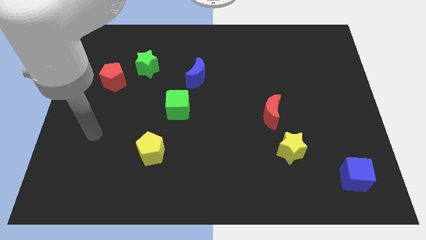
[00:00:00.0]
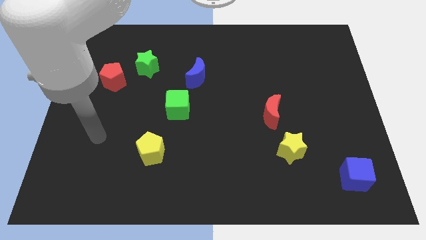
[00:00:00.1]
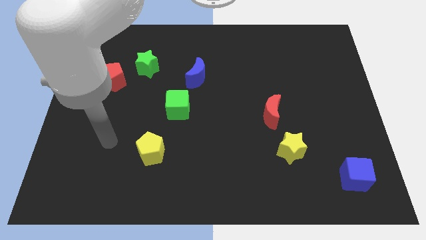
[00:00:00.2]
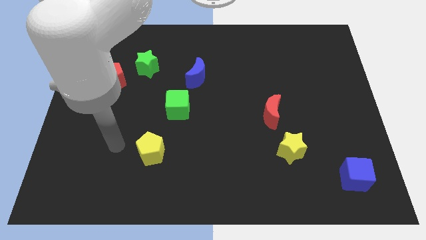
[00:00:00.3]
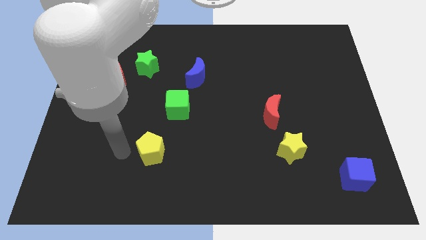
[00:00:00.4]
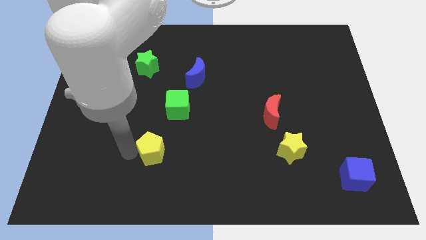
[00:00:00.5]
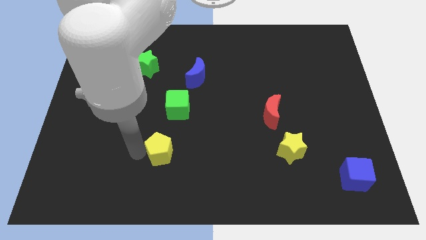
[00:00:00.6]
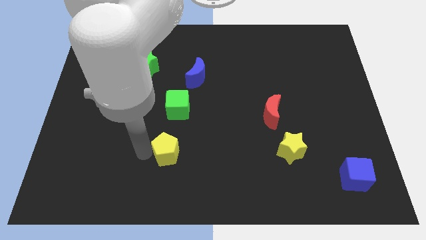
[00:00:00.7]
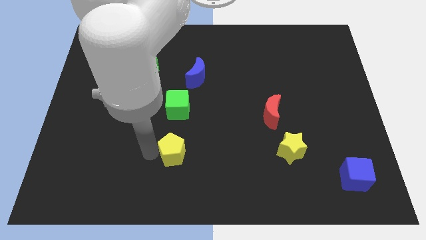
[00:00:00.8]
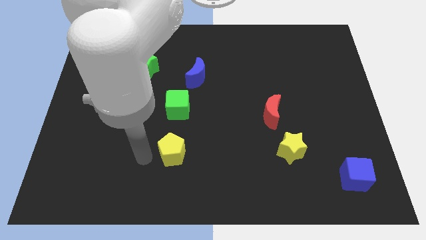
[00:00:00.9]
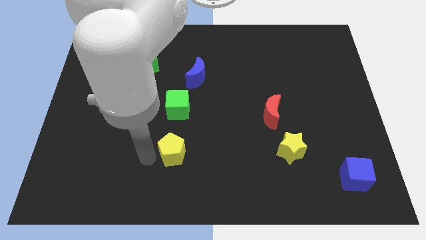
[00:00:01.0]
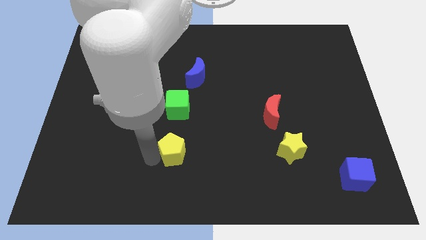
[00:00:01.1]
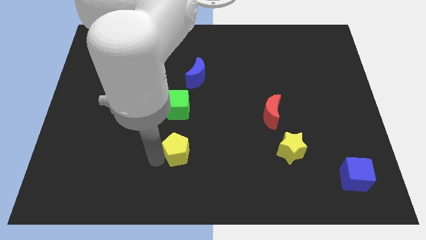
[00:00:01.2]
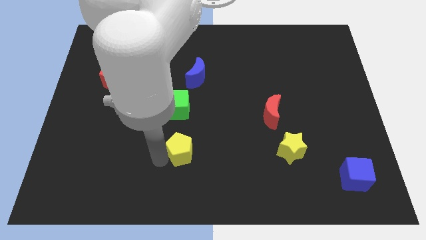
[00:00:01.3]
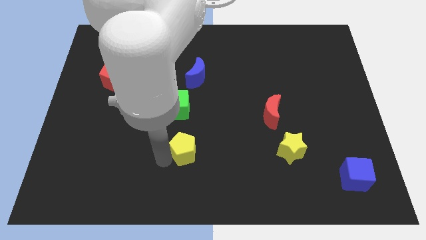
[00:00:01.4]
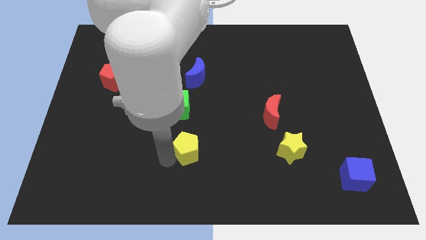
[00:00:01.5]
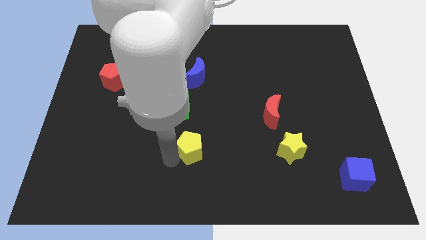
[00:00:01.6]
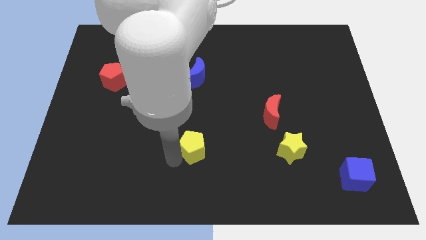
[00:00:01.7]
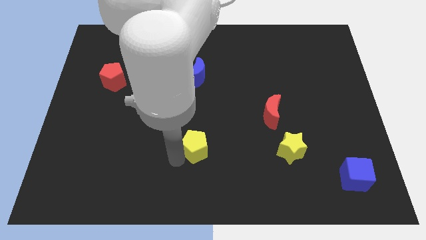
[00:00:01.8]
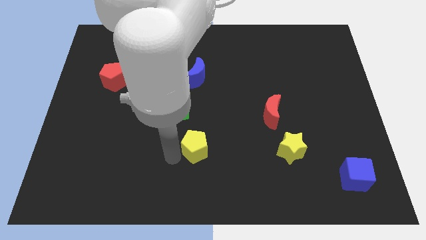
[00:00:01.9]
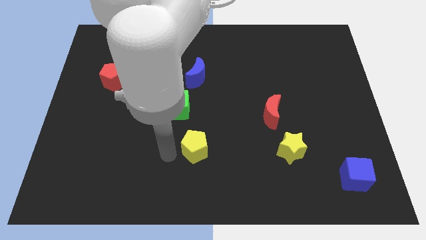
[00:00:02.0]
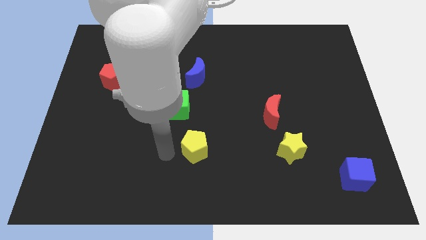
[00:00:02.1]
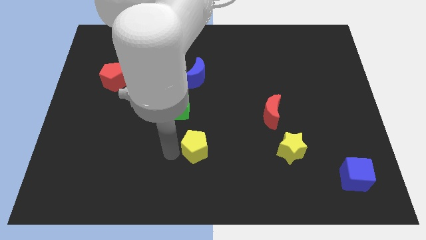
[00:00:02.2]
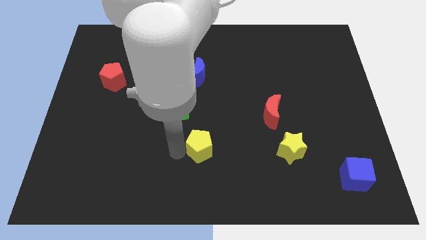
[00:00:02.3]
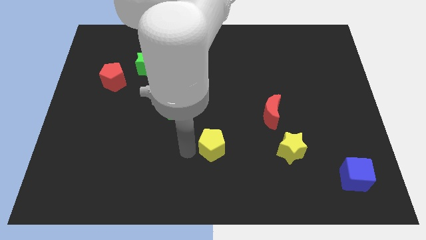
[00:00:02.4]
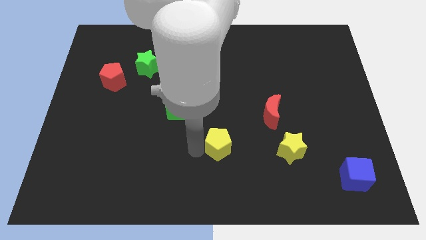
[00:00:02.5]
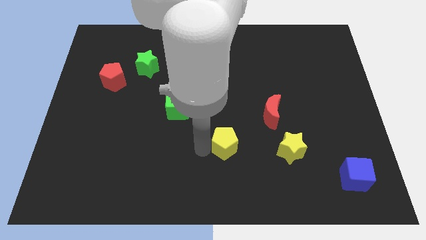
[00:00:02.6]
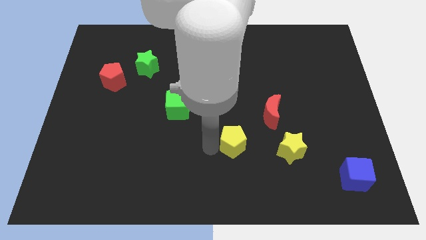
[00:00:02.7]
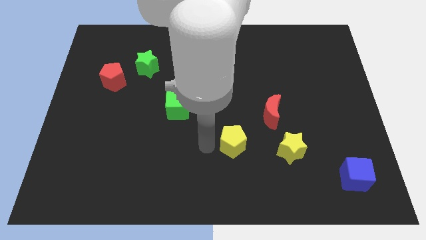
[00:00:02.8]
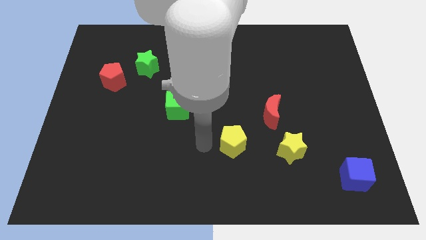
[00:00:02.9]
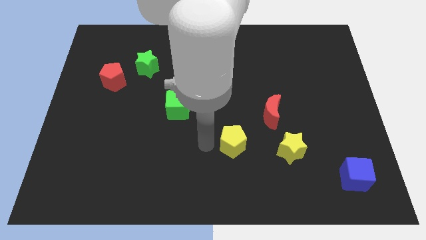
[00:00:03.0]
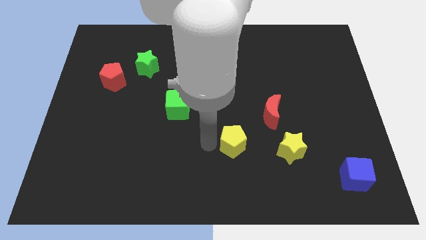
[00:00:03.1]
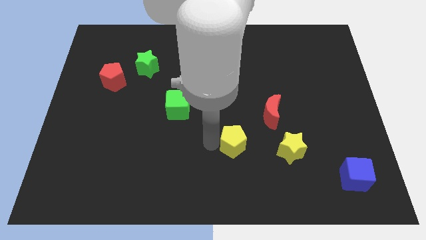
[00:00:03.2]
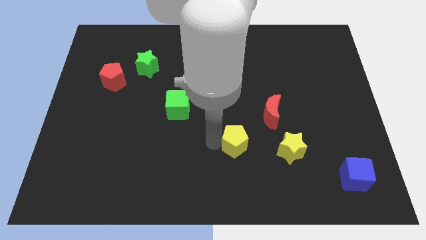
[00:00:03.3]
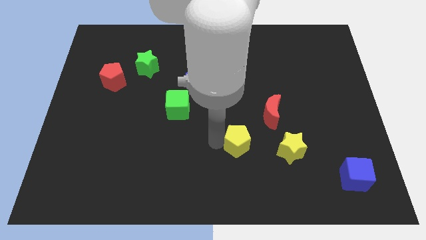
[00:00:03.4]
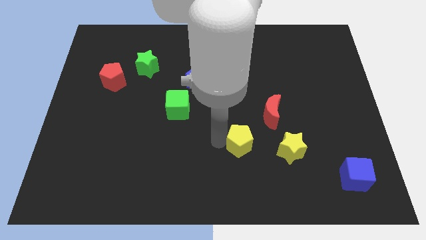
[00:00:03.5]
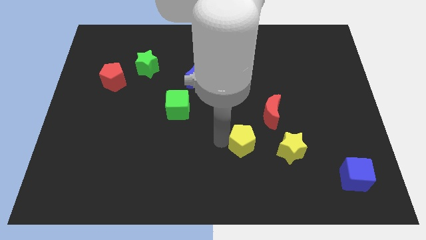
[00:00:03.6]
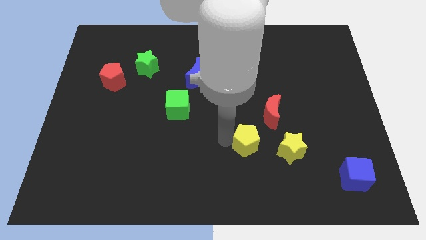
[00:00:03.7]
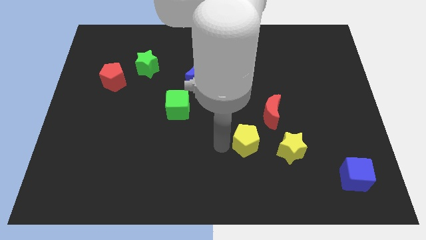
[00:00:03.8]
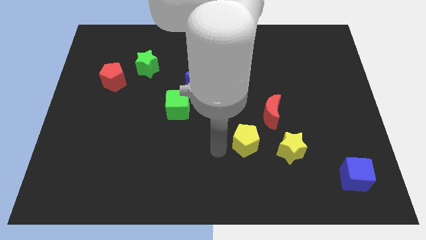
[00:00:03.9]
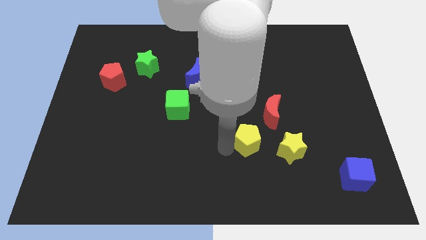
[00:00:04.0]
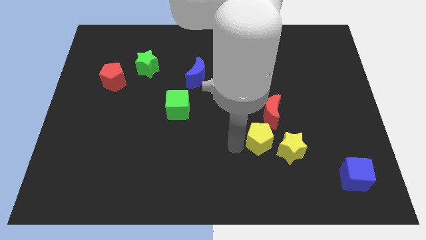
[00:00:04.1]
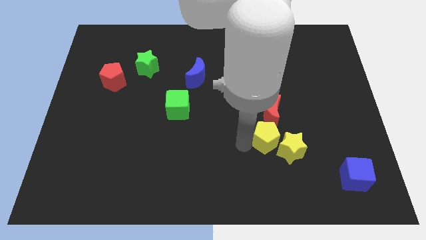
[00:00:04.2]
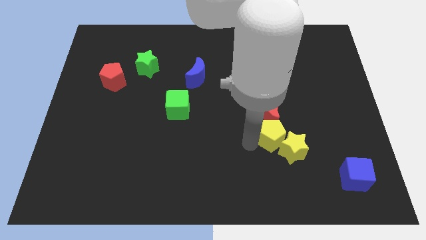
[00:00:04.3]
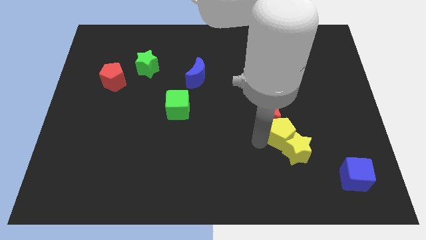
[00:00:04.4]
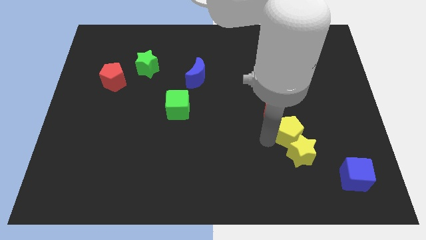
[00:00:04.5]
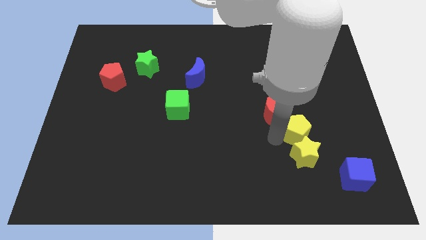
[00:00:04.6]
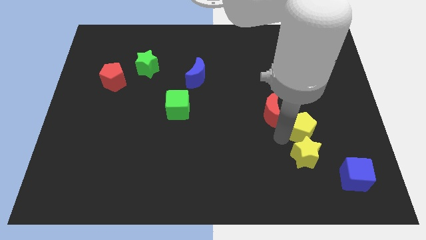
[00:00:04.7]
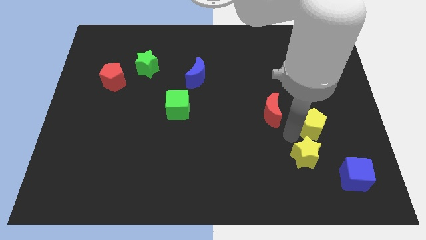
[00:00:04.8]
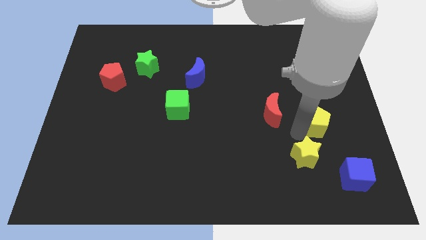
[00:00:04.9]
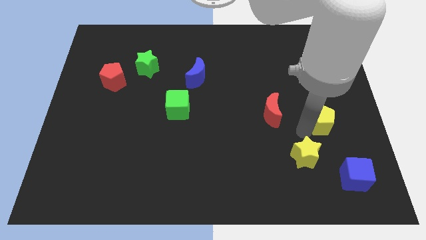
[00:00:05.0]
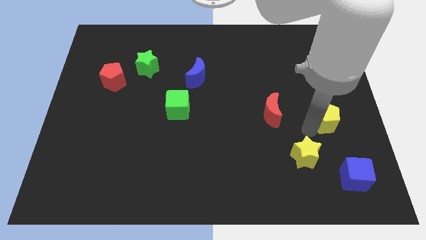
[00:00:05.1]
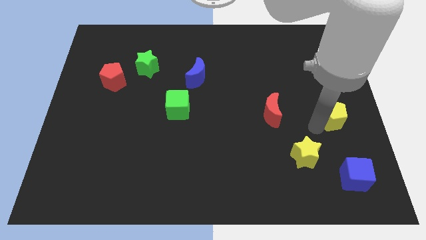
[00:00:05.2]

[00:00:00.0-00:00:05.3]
slide the yellow pentagon to the right side

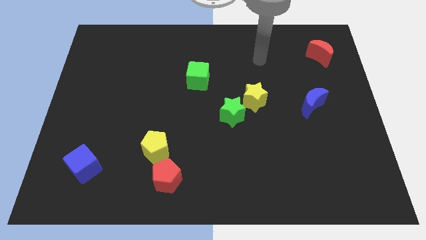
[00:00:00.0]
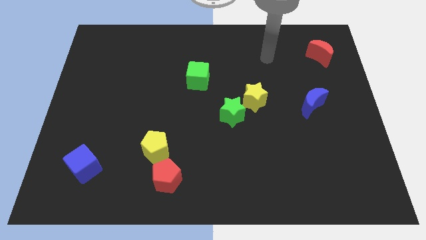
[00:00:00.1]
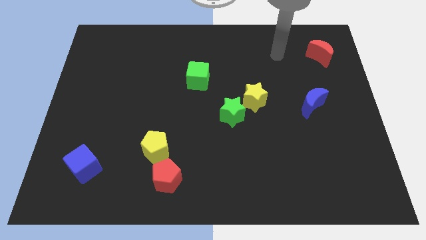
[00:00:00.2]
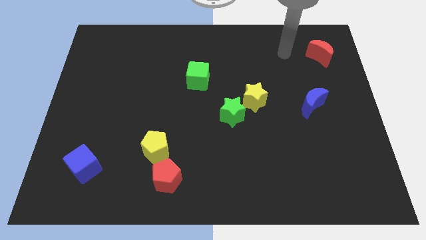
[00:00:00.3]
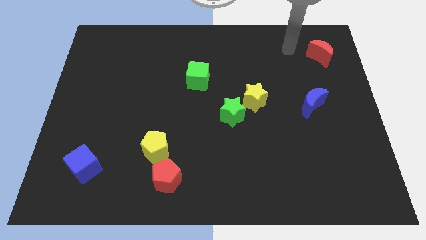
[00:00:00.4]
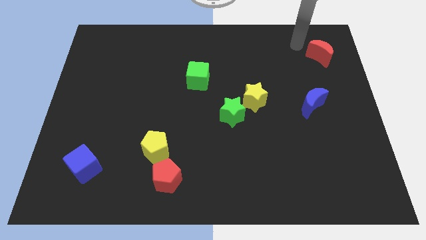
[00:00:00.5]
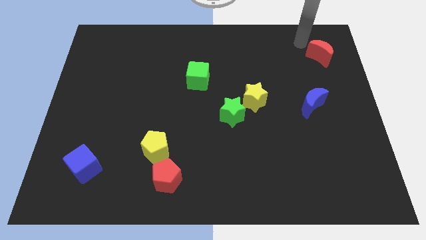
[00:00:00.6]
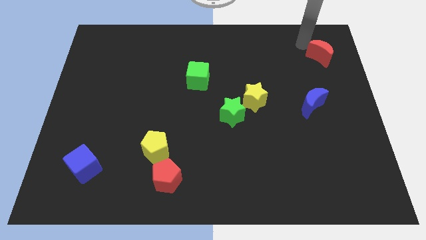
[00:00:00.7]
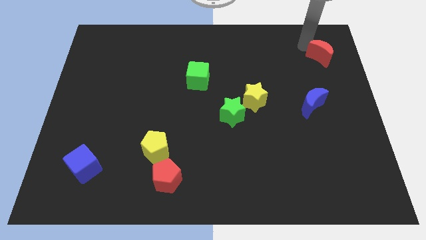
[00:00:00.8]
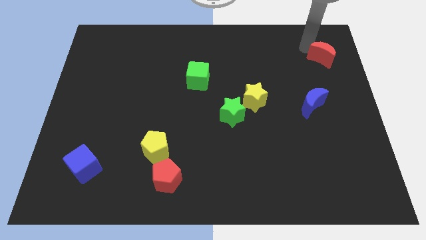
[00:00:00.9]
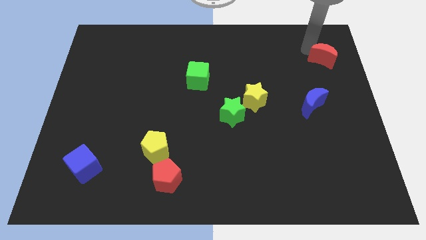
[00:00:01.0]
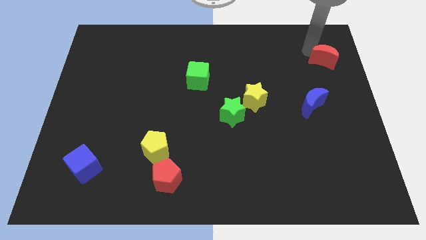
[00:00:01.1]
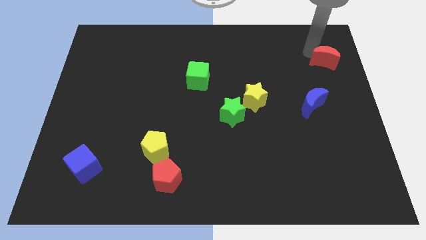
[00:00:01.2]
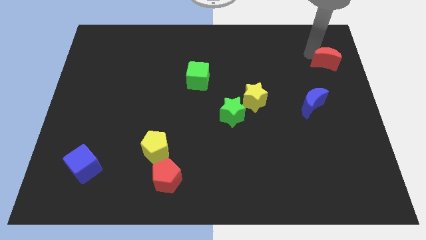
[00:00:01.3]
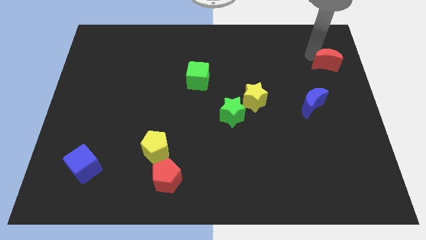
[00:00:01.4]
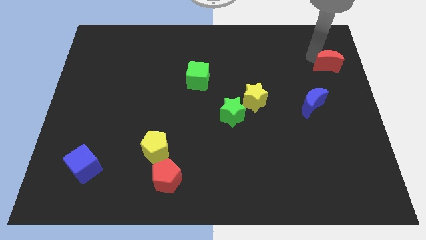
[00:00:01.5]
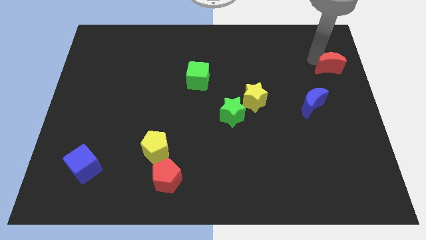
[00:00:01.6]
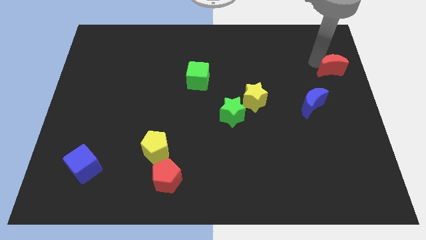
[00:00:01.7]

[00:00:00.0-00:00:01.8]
slide the red moon to the right side of the board
